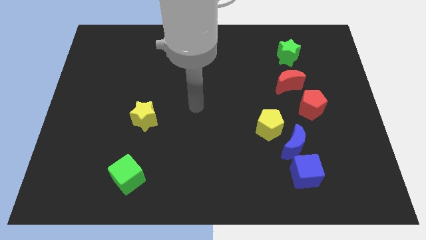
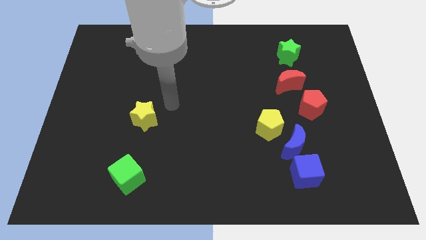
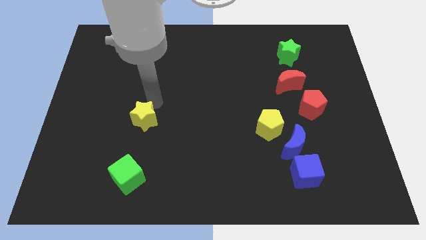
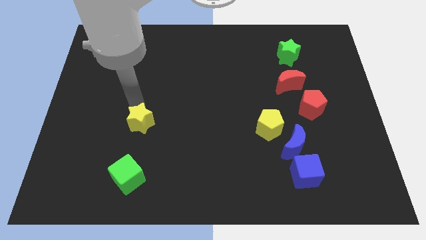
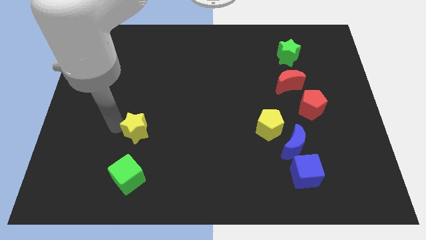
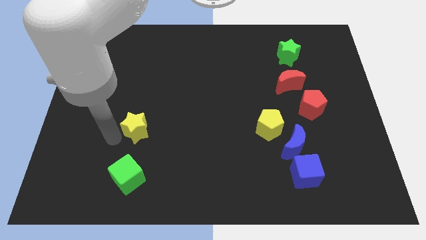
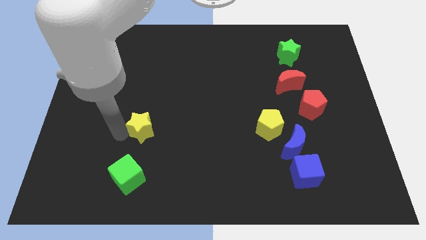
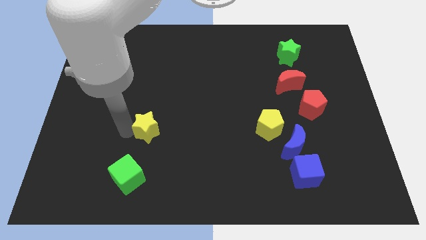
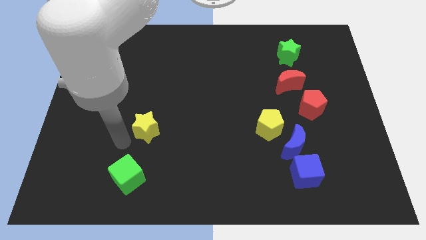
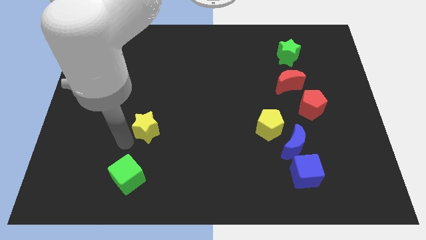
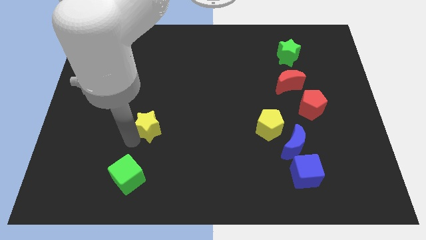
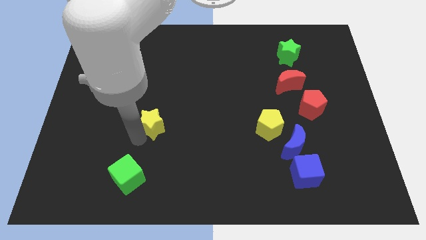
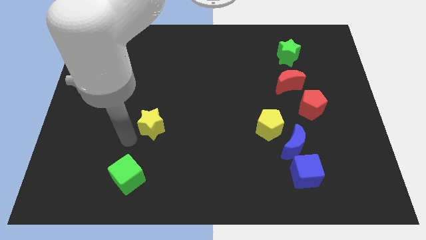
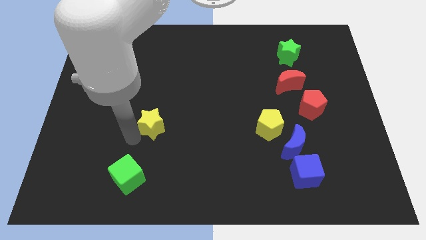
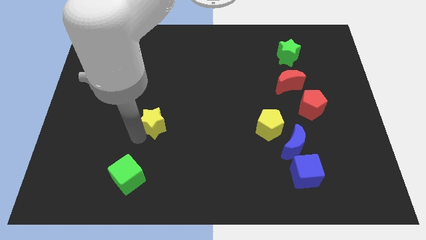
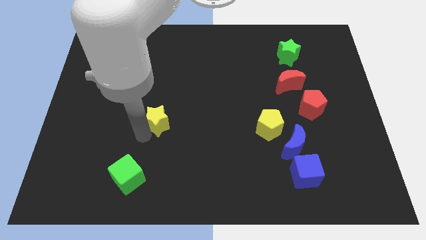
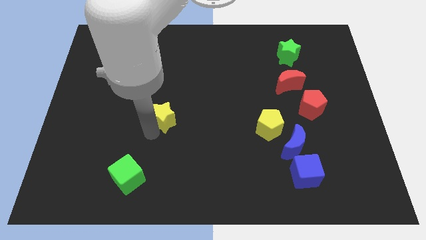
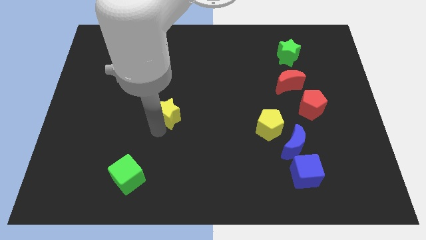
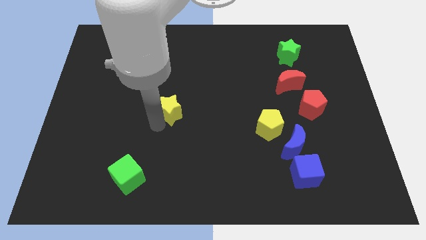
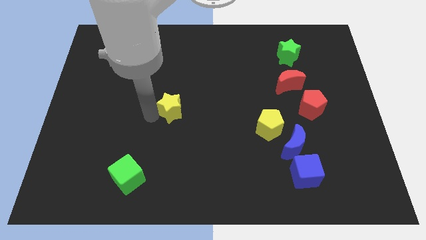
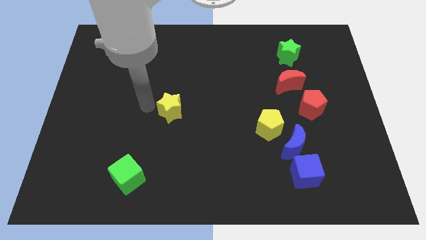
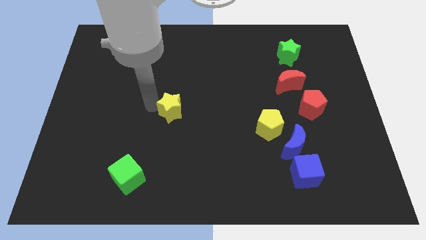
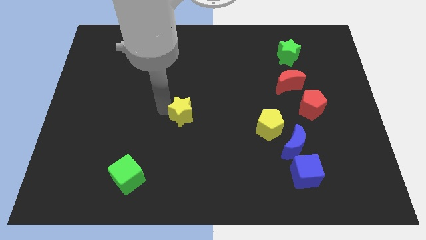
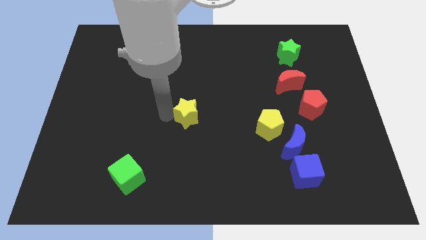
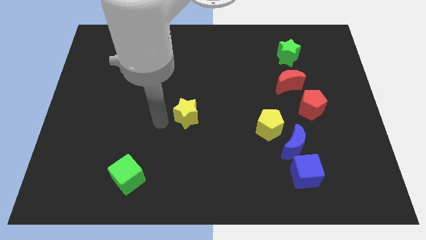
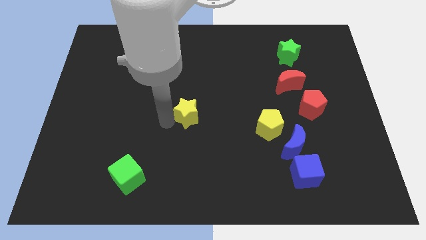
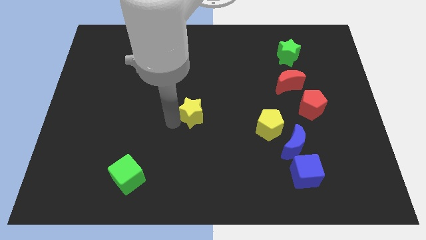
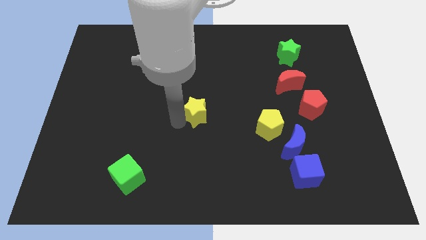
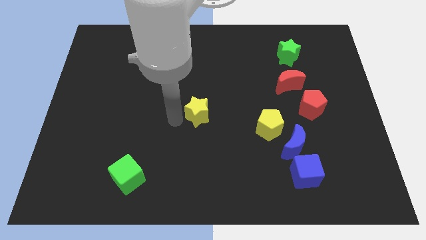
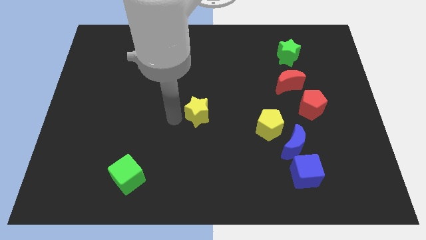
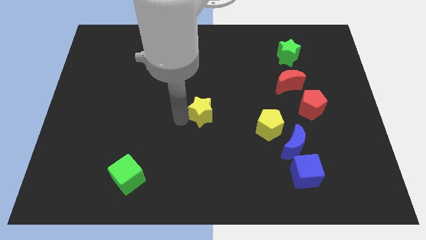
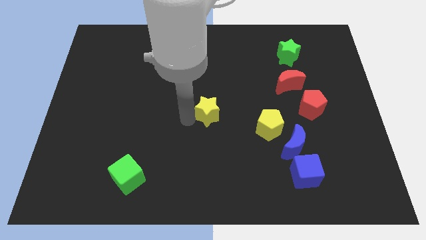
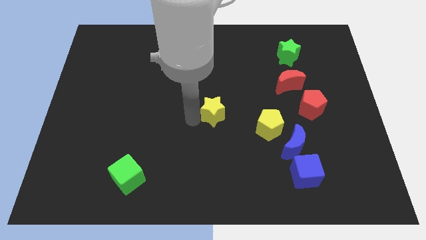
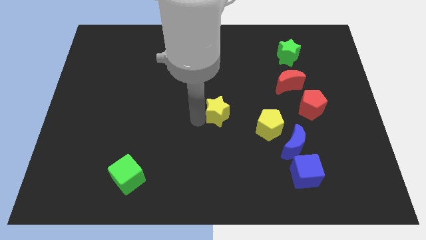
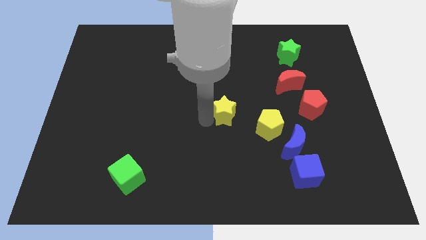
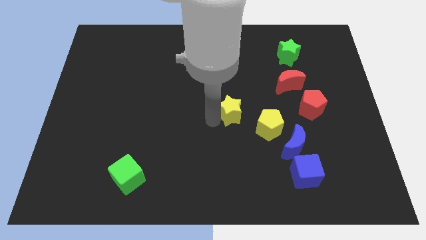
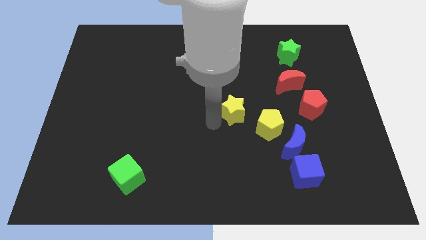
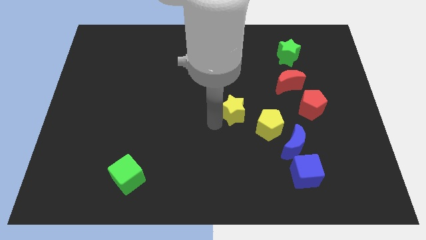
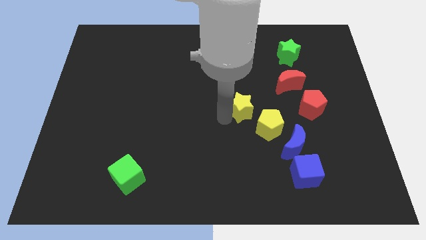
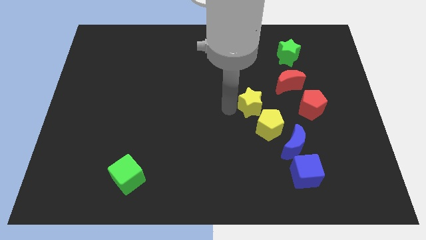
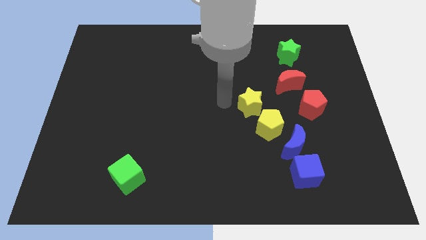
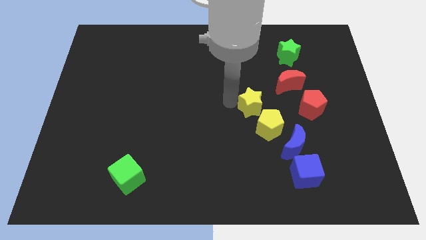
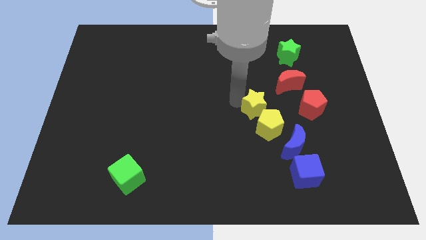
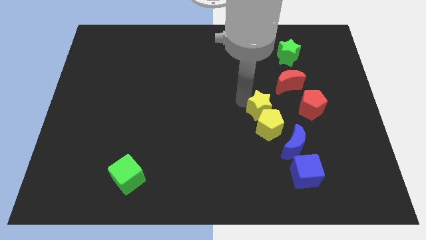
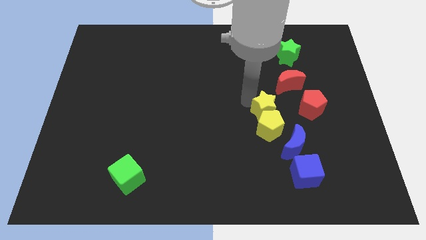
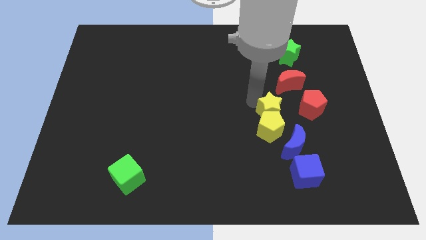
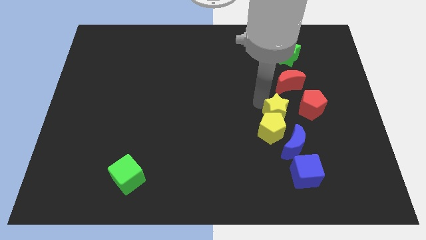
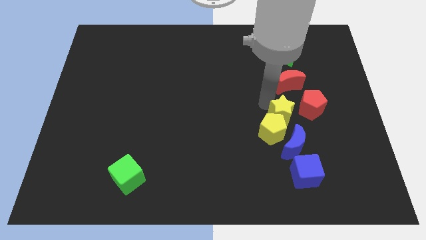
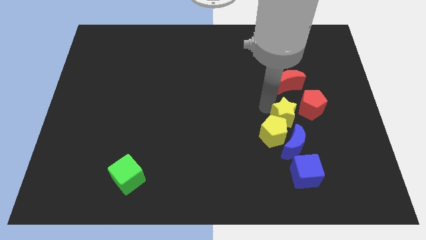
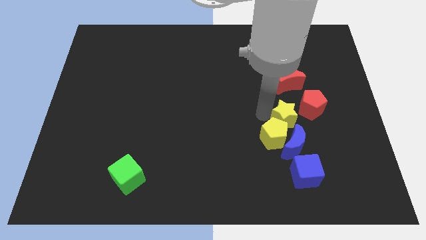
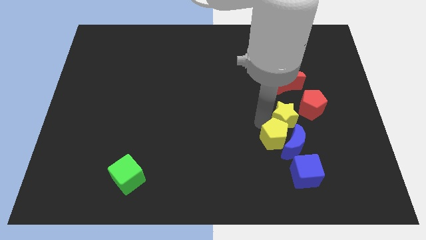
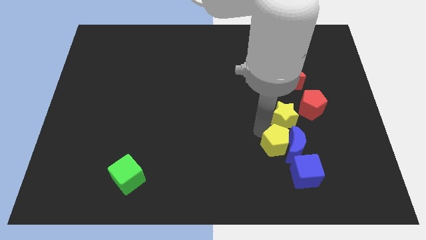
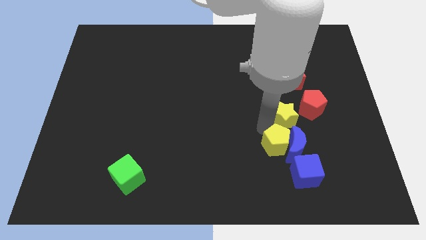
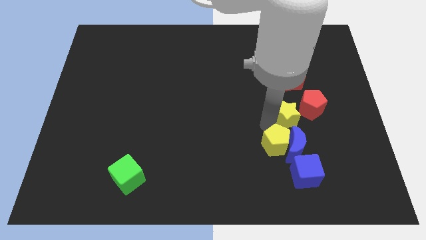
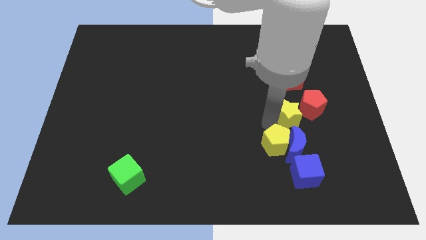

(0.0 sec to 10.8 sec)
slide the yellow star towards the red pentagon

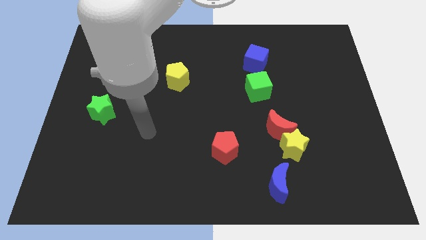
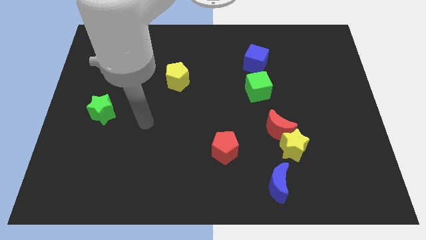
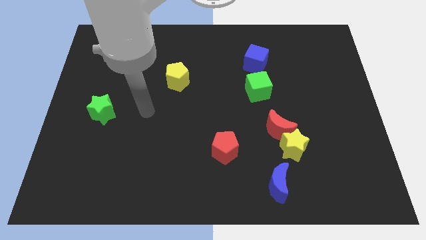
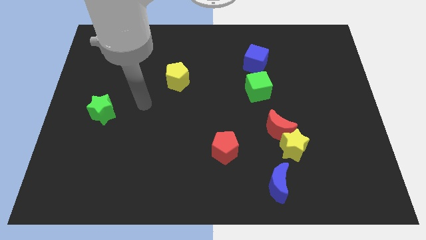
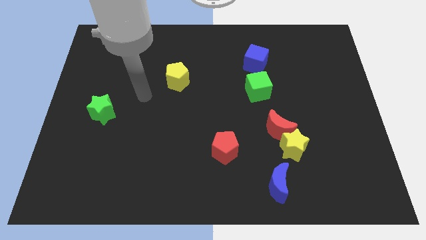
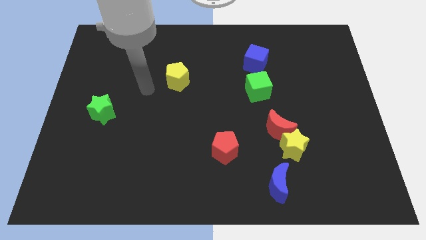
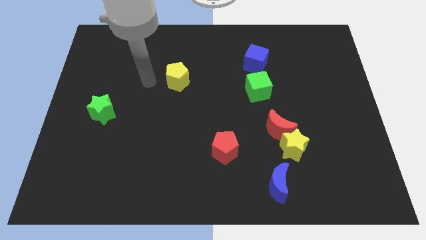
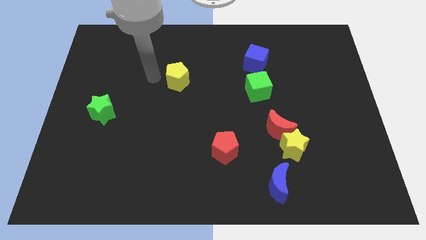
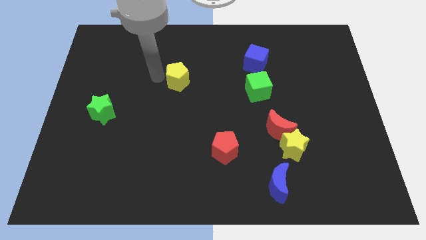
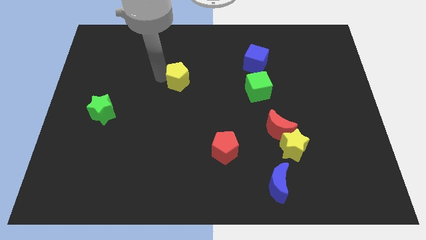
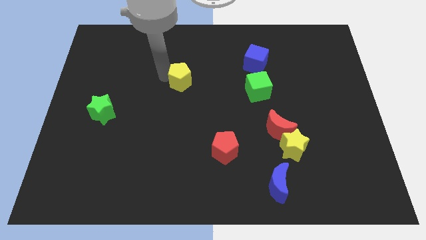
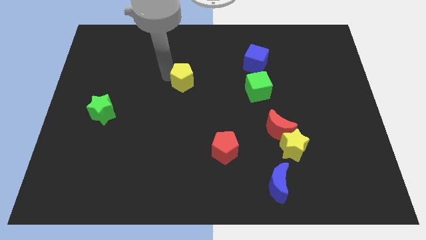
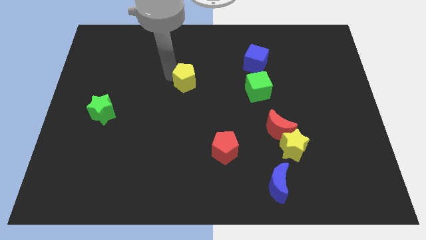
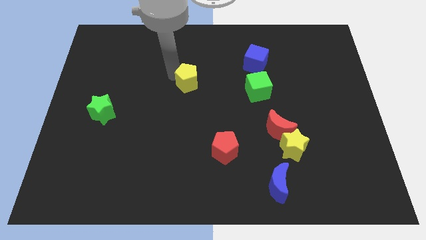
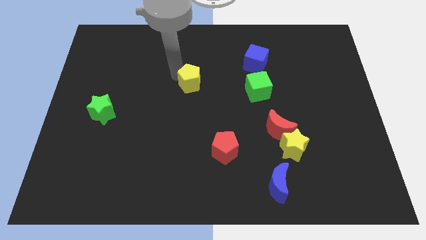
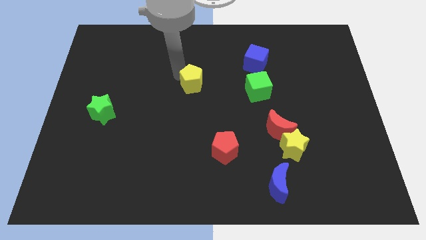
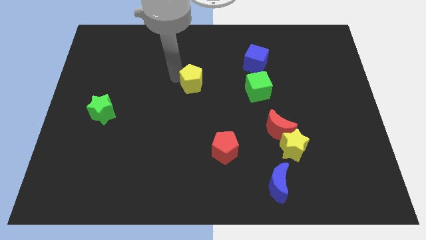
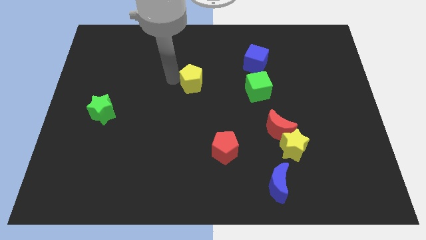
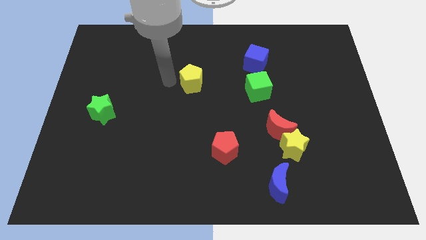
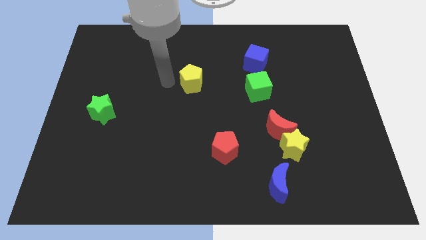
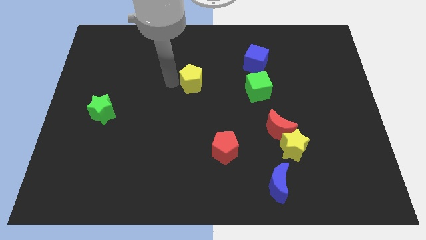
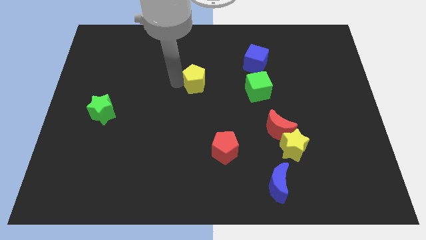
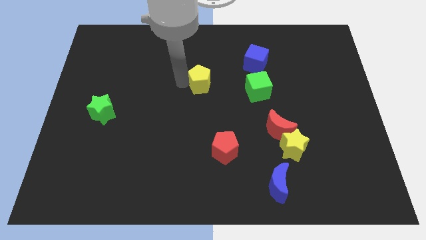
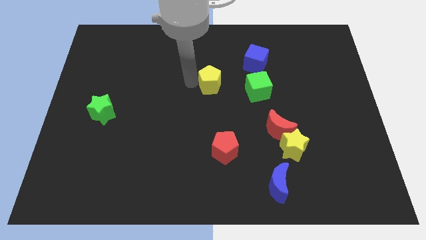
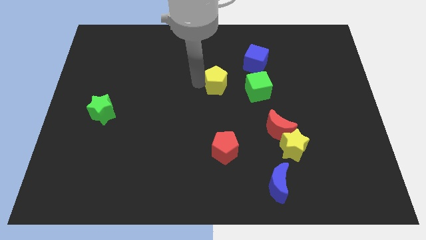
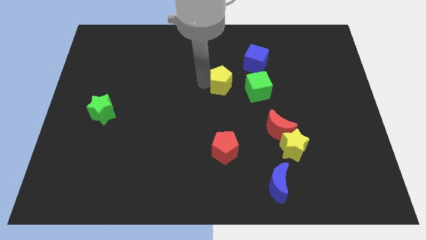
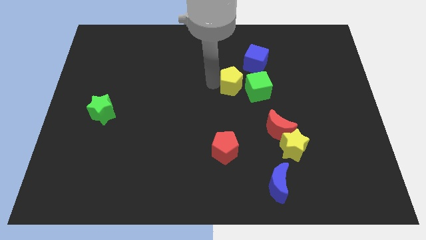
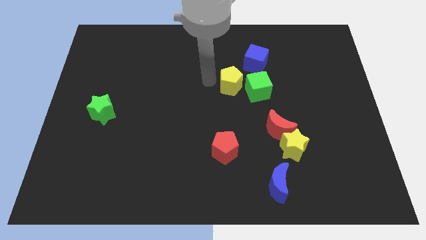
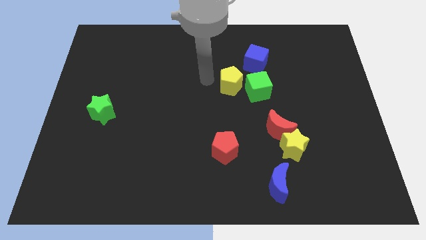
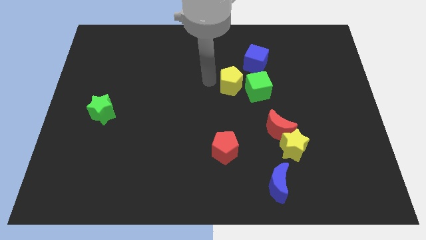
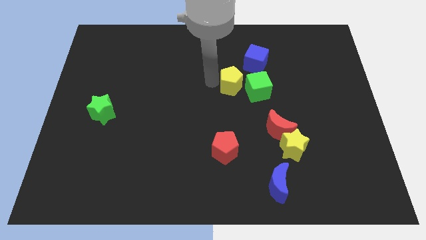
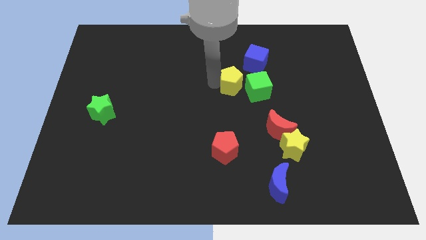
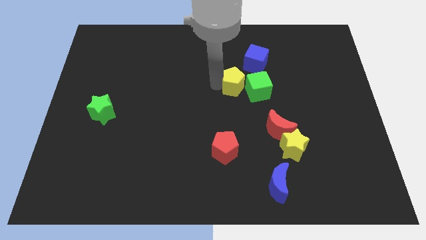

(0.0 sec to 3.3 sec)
put the yellow pentagon to the green cube
